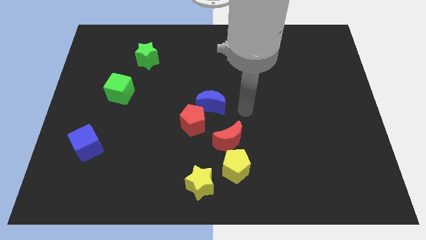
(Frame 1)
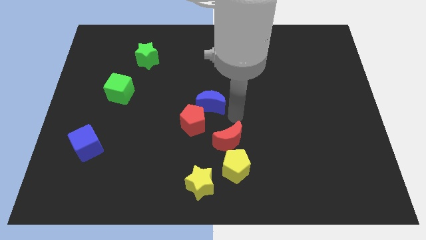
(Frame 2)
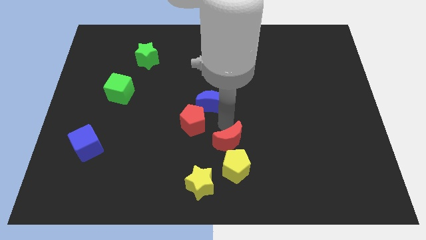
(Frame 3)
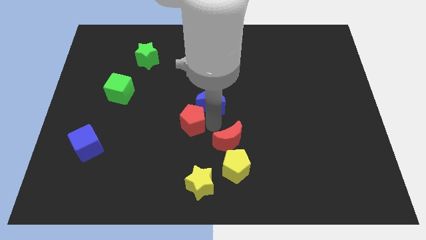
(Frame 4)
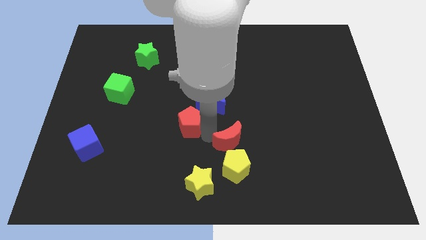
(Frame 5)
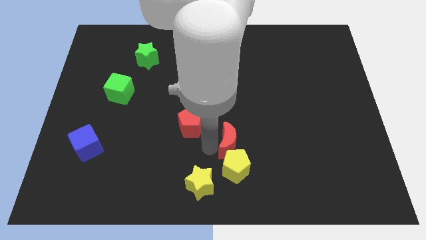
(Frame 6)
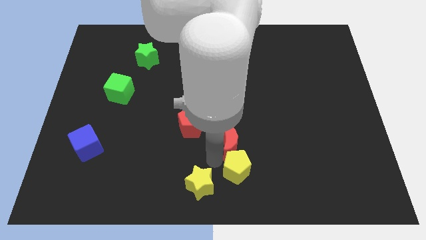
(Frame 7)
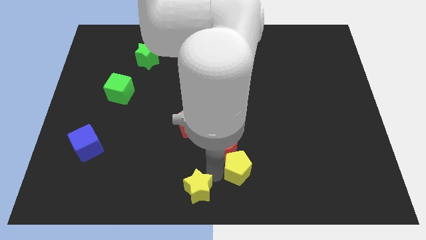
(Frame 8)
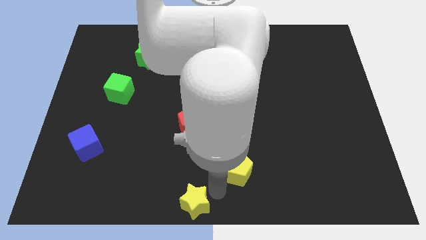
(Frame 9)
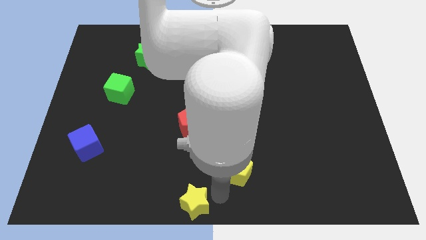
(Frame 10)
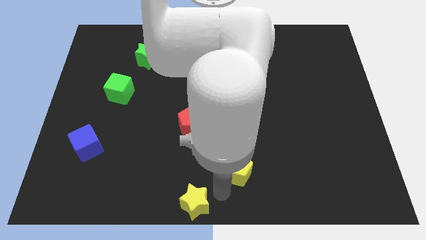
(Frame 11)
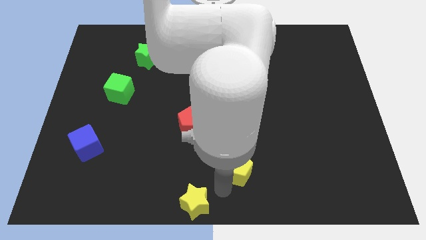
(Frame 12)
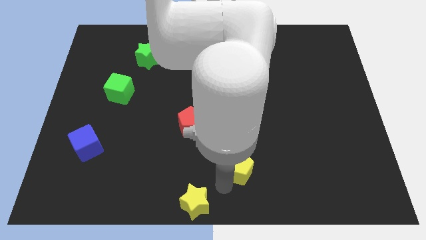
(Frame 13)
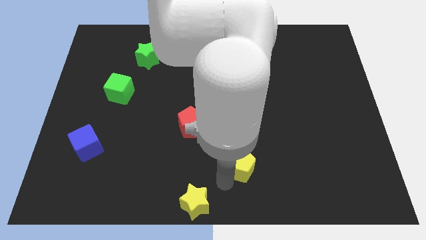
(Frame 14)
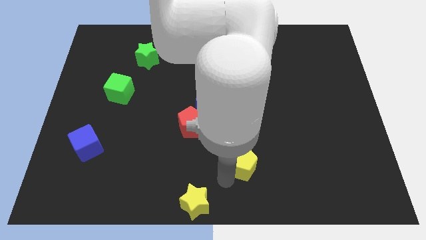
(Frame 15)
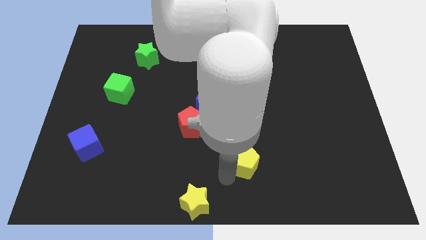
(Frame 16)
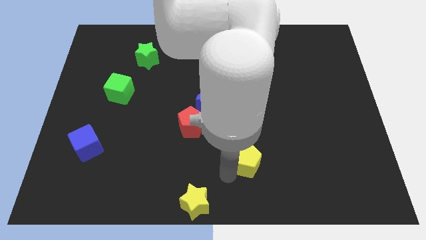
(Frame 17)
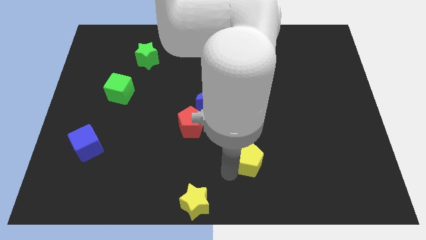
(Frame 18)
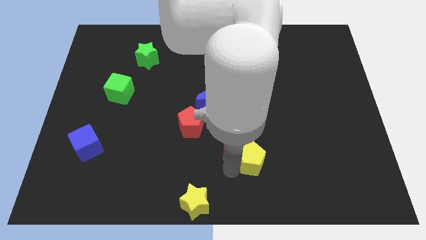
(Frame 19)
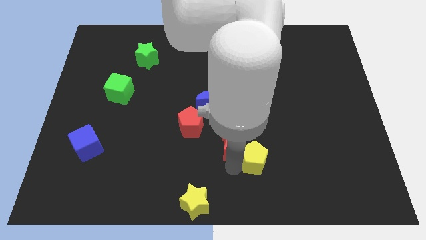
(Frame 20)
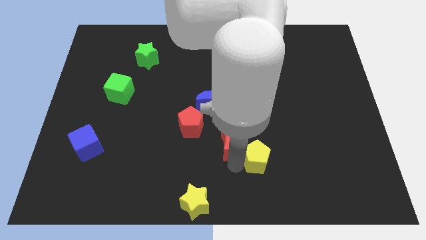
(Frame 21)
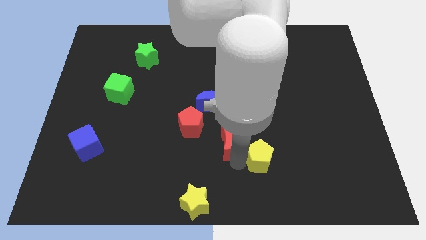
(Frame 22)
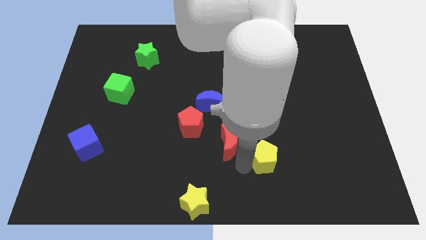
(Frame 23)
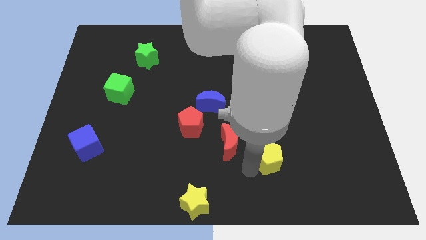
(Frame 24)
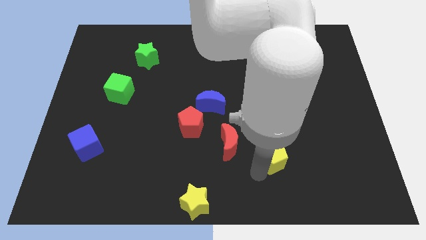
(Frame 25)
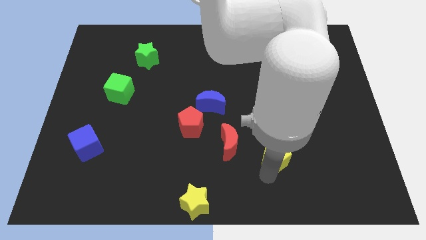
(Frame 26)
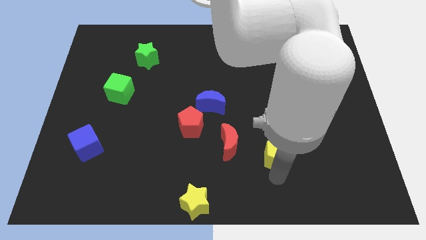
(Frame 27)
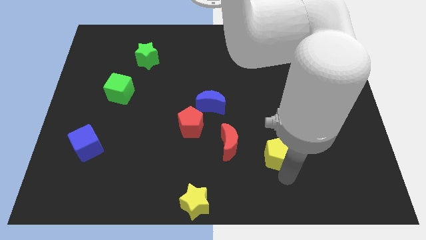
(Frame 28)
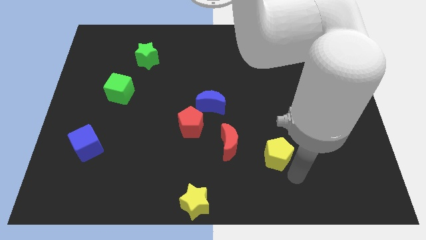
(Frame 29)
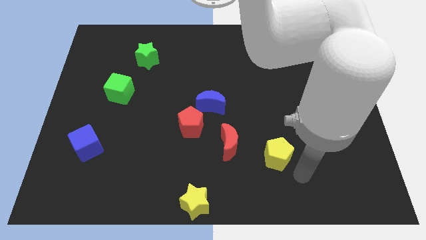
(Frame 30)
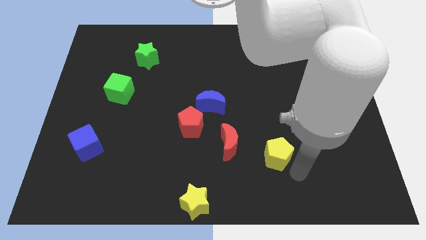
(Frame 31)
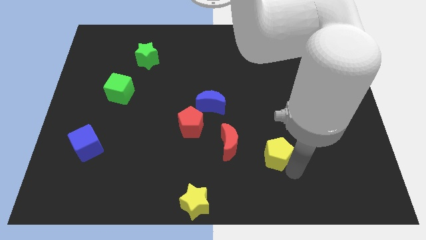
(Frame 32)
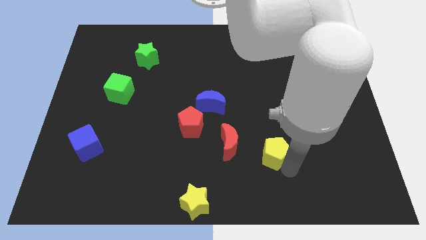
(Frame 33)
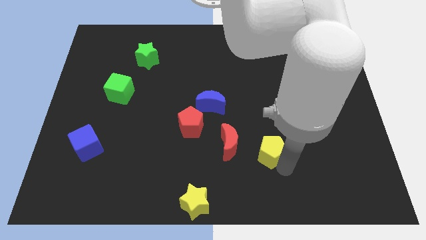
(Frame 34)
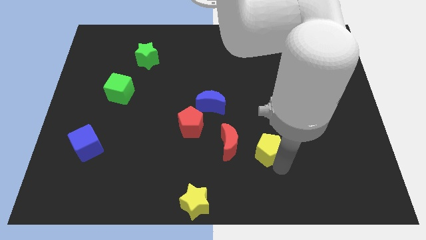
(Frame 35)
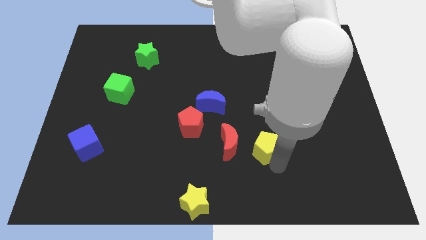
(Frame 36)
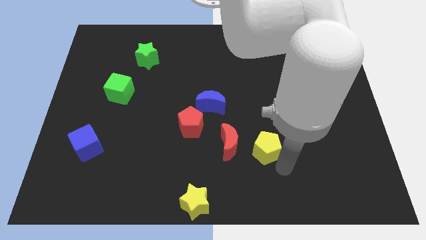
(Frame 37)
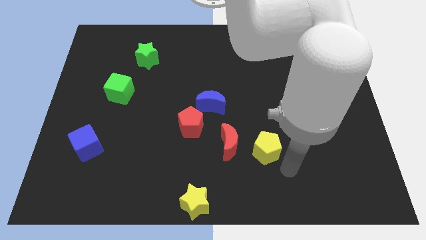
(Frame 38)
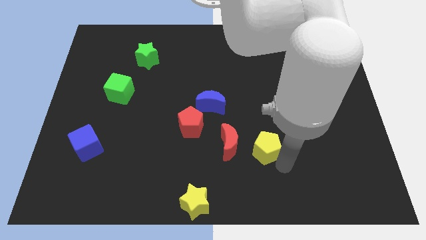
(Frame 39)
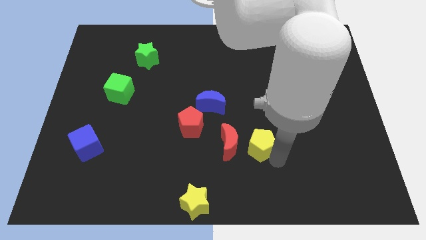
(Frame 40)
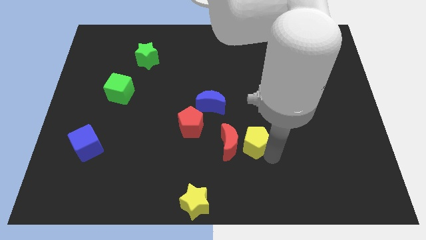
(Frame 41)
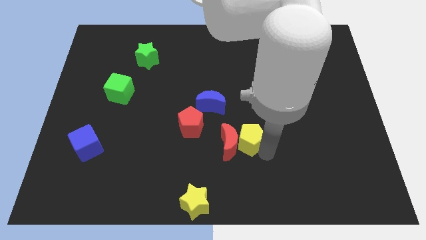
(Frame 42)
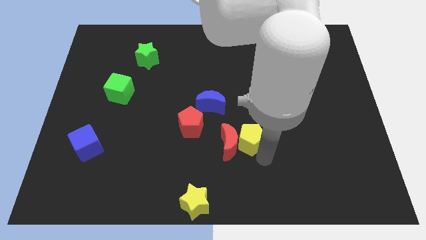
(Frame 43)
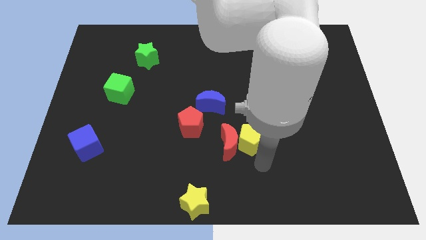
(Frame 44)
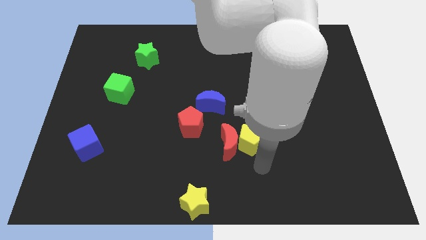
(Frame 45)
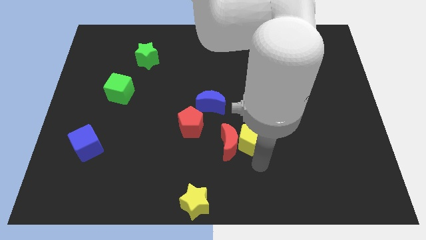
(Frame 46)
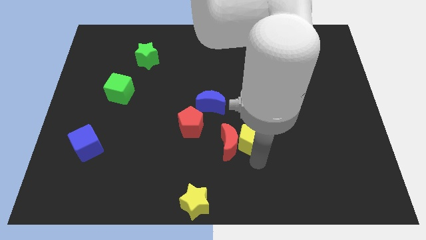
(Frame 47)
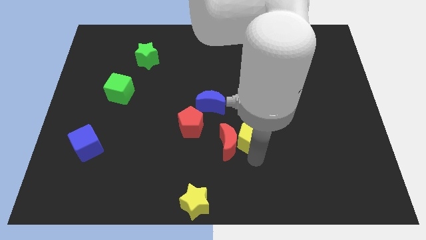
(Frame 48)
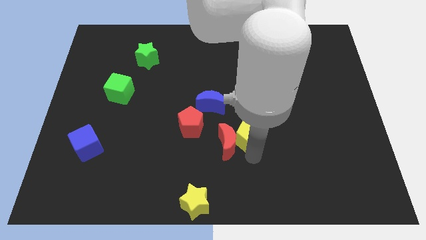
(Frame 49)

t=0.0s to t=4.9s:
slightly slide the yellow pentagon up
